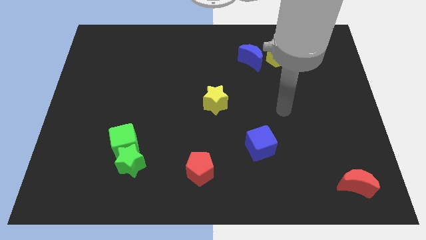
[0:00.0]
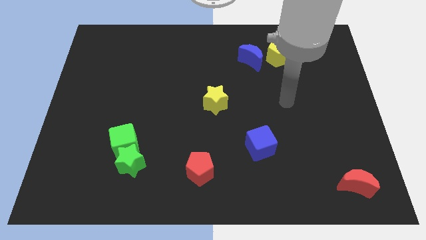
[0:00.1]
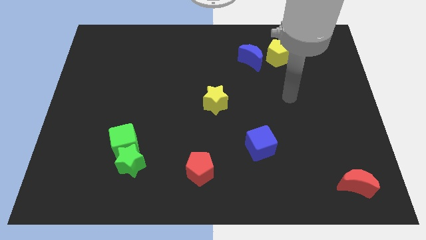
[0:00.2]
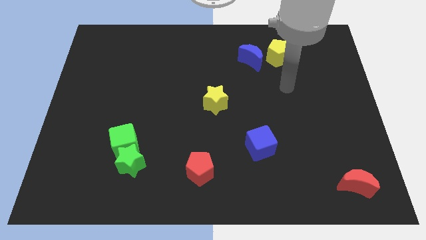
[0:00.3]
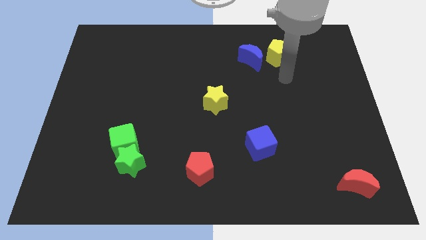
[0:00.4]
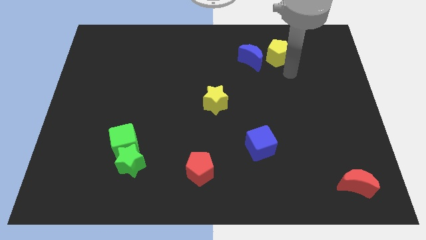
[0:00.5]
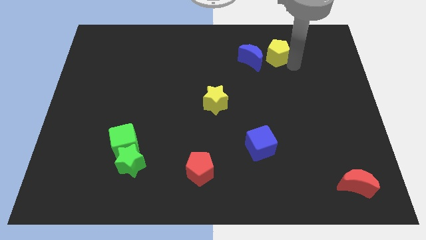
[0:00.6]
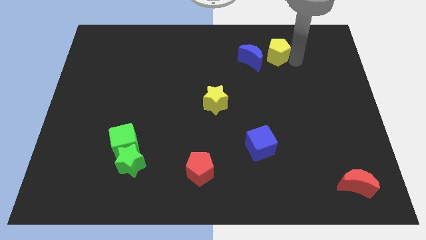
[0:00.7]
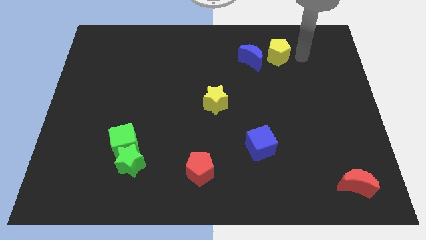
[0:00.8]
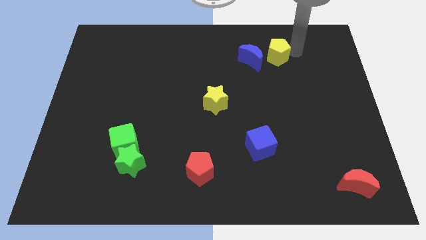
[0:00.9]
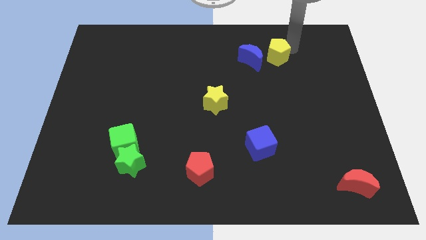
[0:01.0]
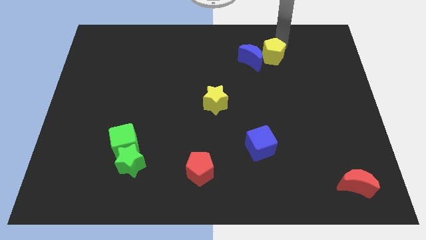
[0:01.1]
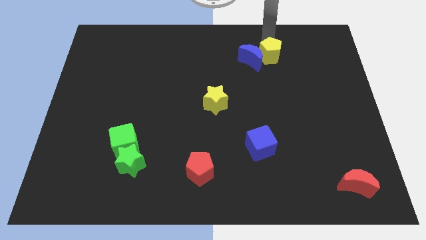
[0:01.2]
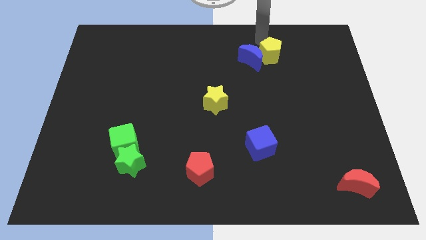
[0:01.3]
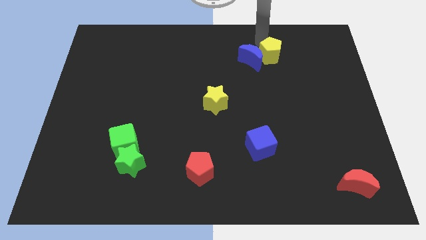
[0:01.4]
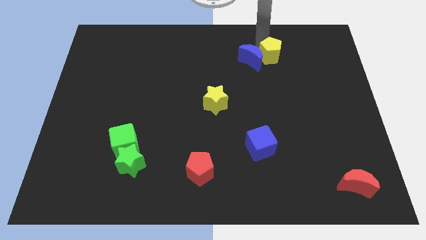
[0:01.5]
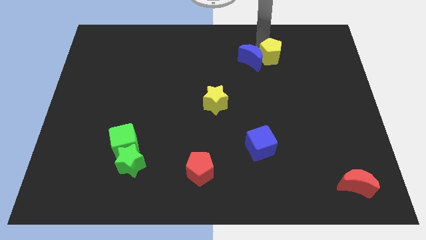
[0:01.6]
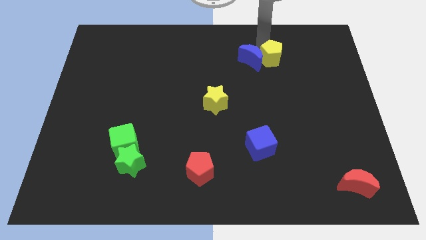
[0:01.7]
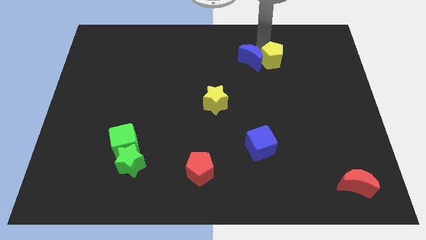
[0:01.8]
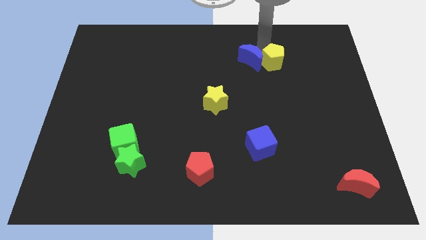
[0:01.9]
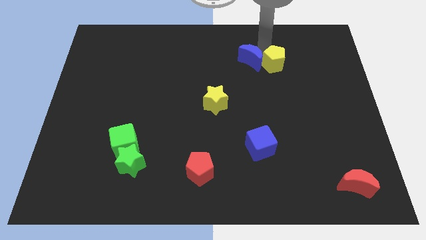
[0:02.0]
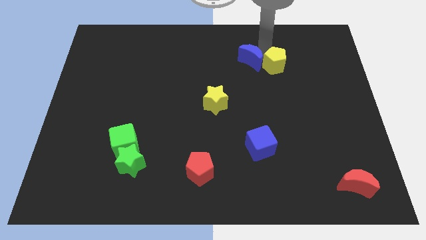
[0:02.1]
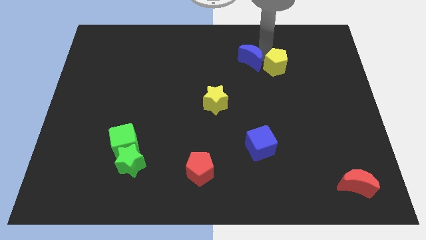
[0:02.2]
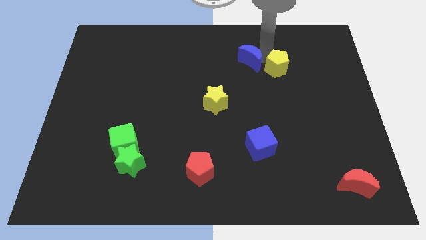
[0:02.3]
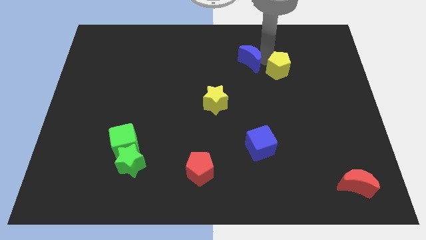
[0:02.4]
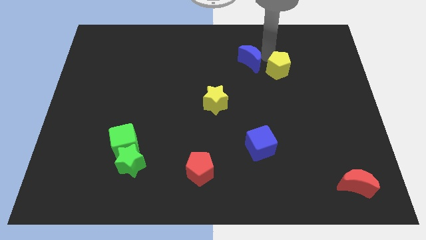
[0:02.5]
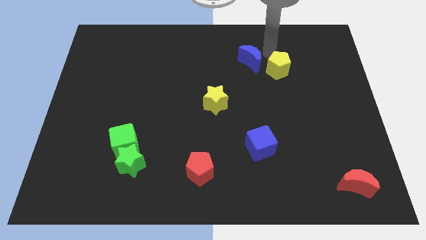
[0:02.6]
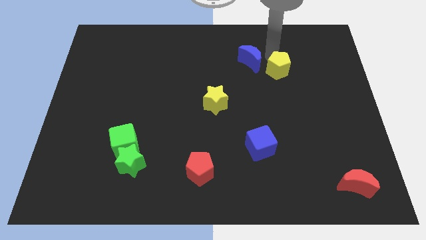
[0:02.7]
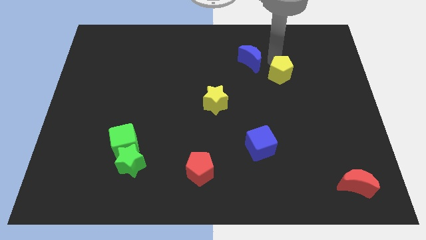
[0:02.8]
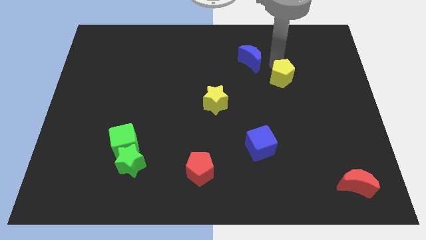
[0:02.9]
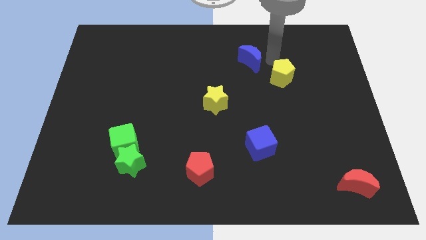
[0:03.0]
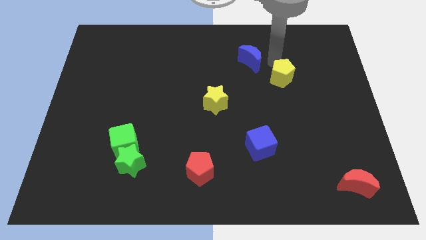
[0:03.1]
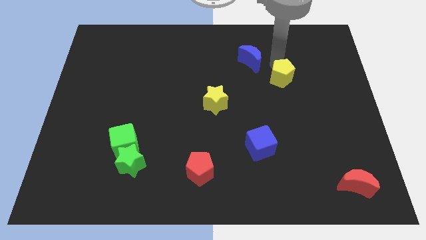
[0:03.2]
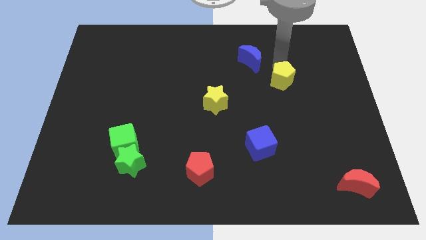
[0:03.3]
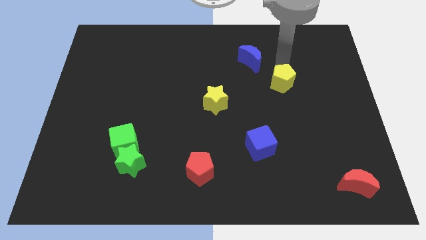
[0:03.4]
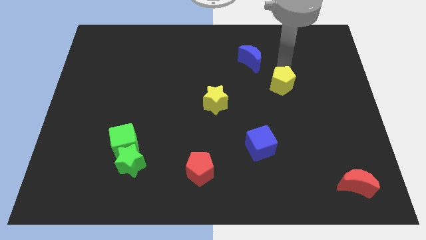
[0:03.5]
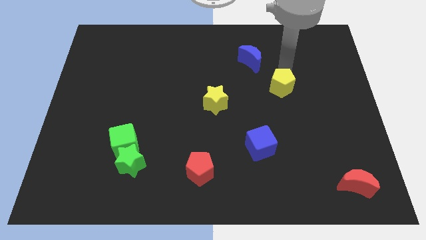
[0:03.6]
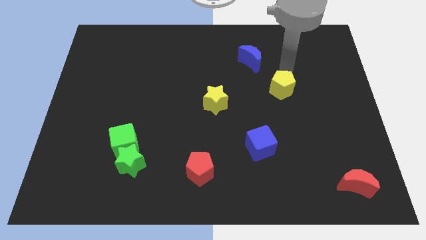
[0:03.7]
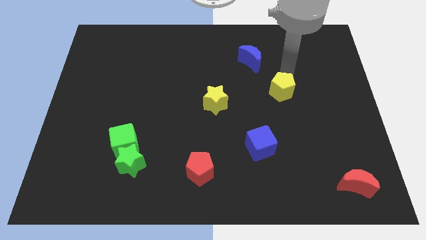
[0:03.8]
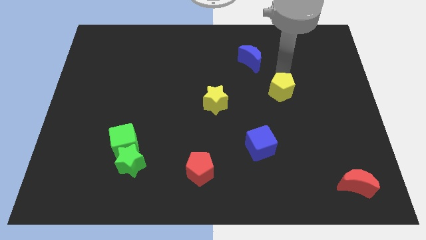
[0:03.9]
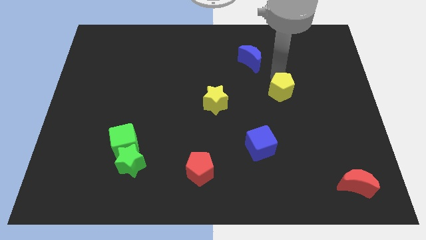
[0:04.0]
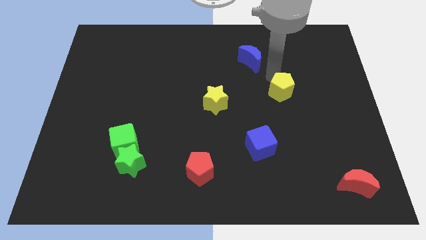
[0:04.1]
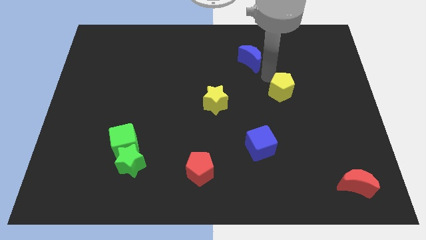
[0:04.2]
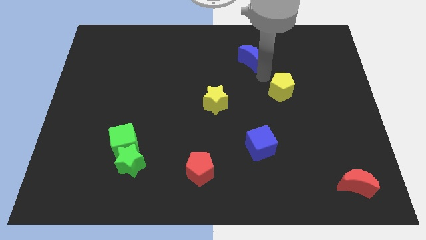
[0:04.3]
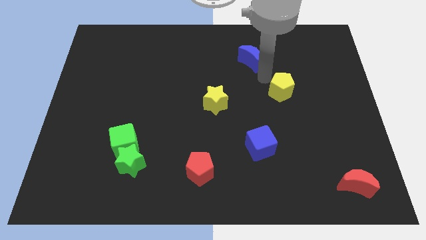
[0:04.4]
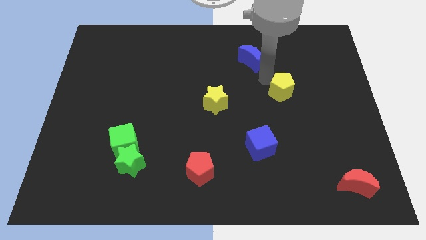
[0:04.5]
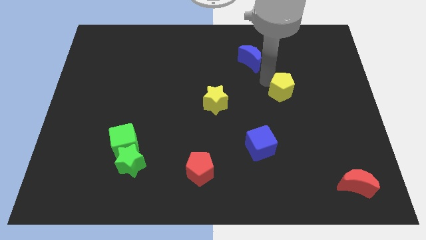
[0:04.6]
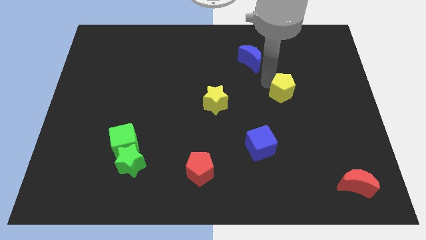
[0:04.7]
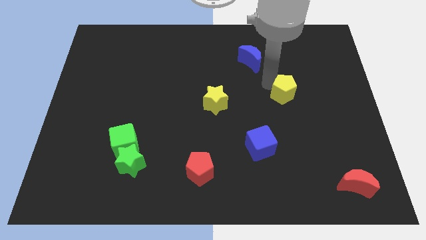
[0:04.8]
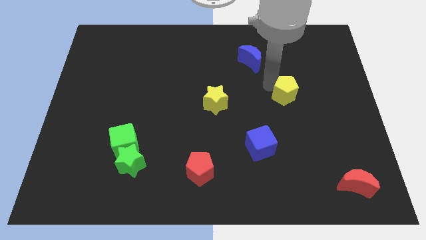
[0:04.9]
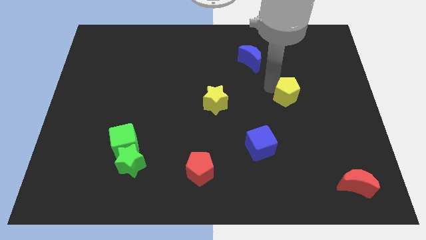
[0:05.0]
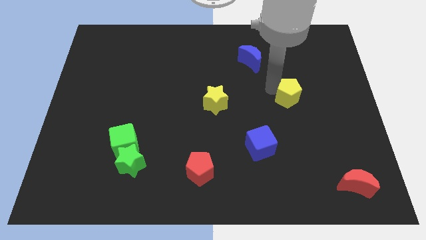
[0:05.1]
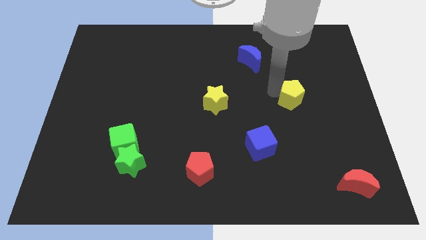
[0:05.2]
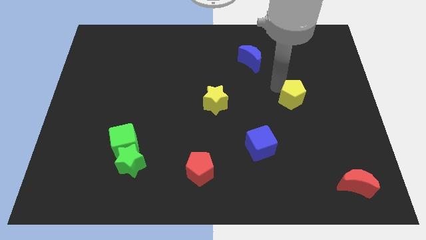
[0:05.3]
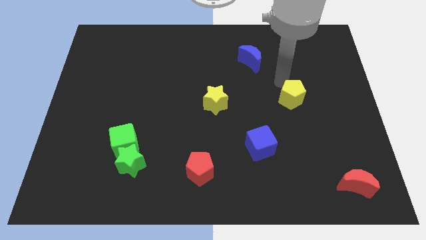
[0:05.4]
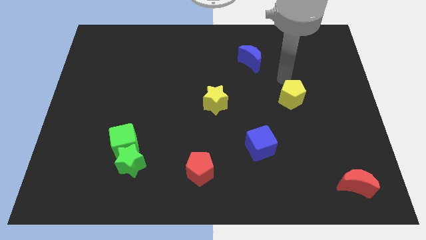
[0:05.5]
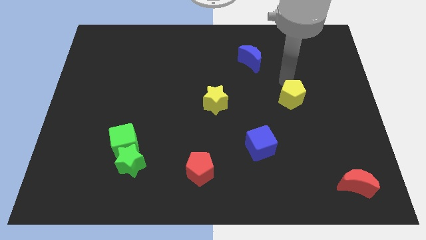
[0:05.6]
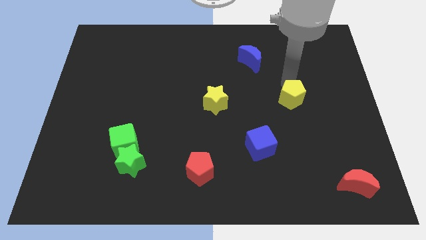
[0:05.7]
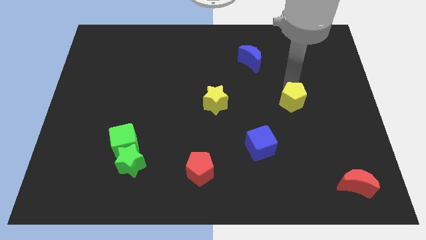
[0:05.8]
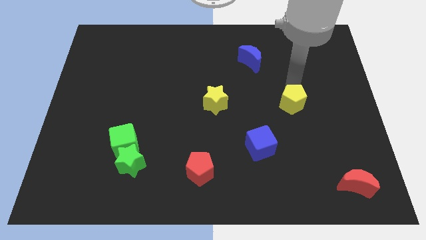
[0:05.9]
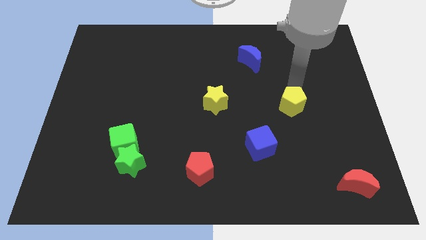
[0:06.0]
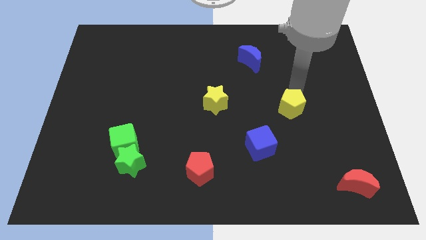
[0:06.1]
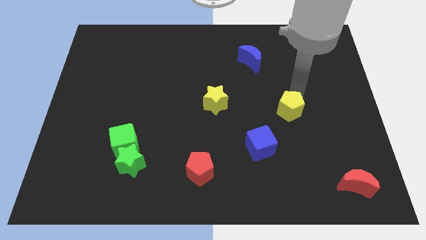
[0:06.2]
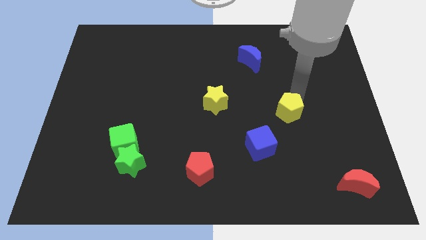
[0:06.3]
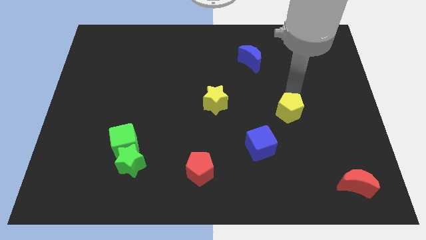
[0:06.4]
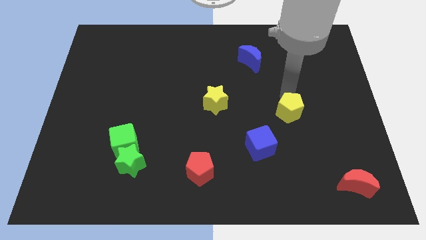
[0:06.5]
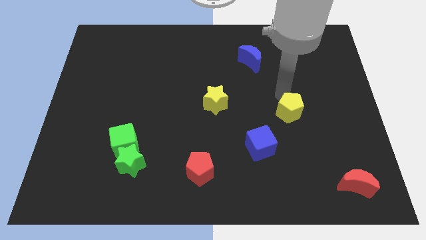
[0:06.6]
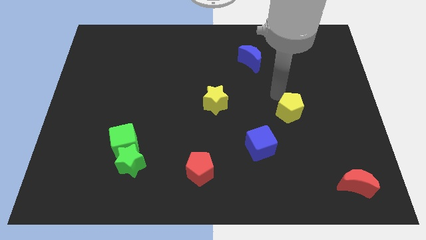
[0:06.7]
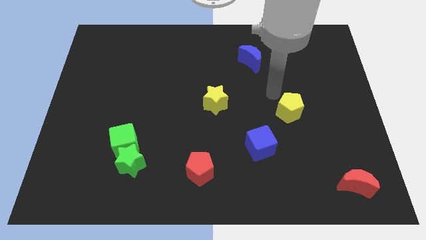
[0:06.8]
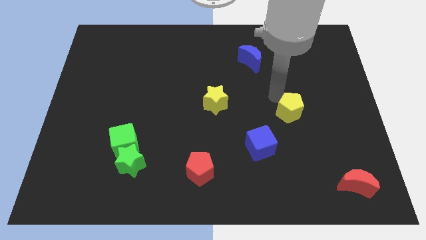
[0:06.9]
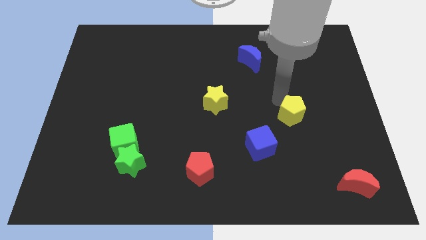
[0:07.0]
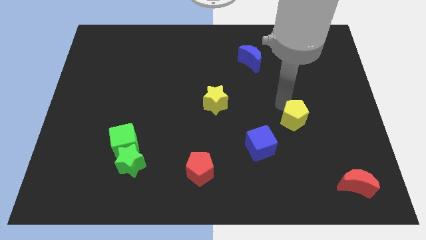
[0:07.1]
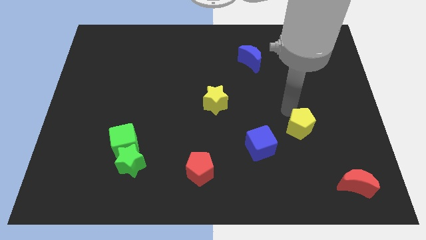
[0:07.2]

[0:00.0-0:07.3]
push the yellow pentagon to the right of the blue cube

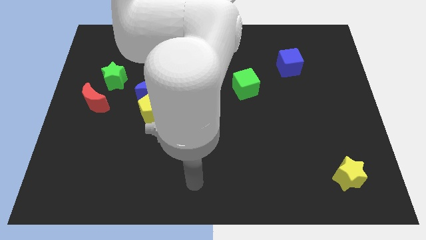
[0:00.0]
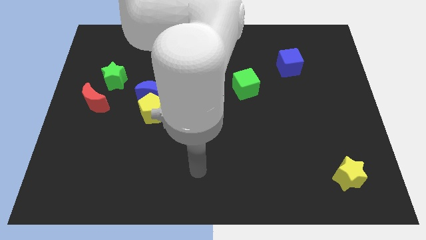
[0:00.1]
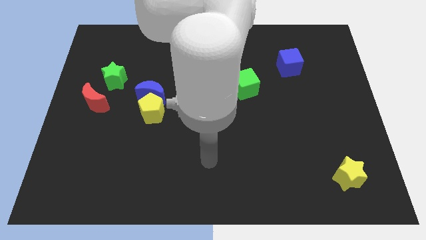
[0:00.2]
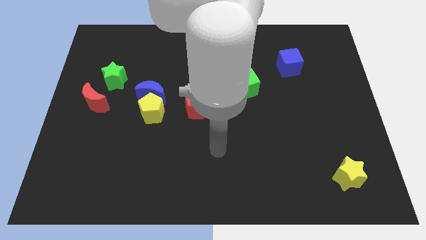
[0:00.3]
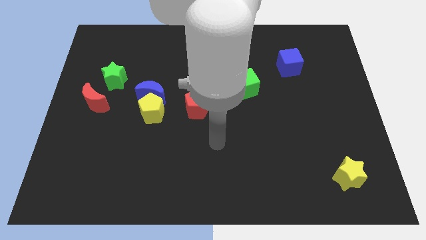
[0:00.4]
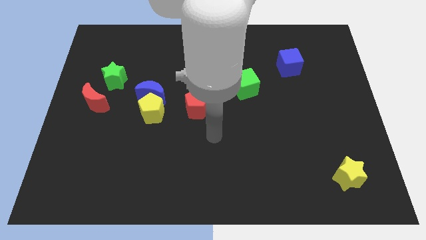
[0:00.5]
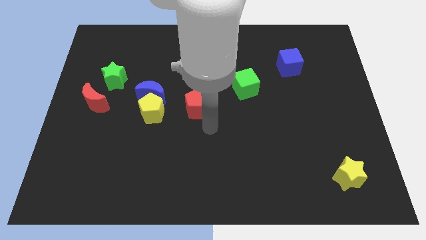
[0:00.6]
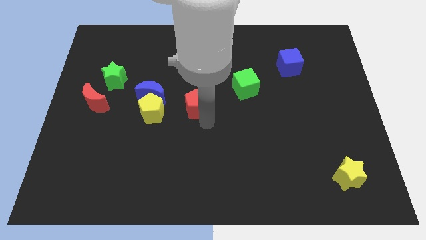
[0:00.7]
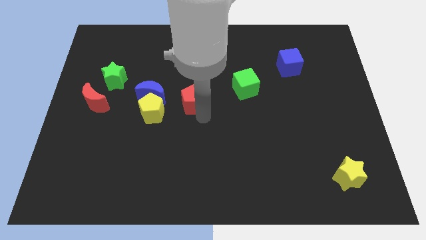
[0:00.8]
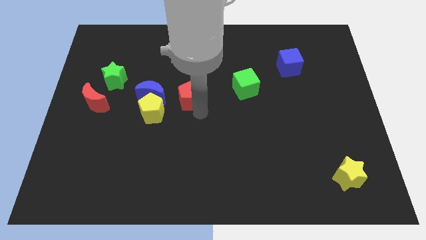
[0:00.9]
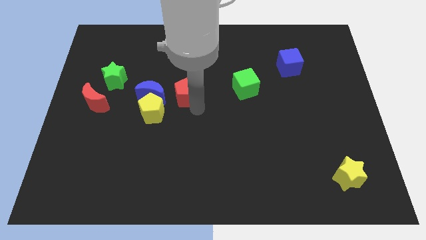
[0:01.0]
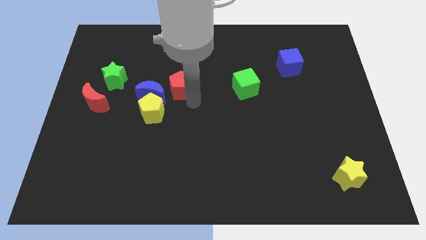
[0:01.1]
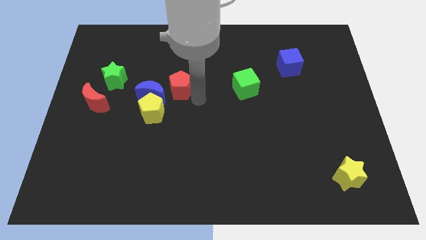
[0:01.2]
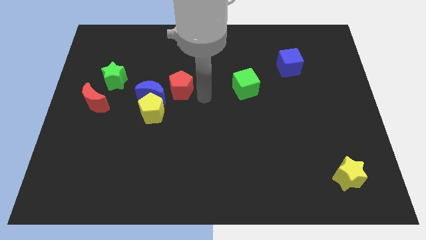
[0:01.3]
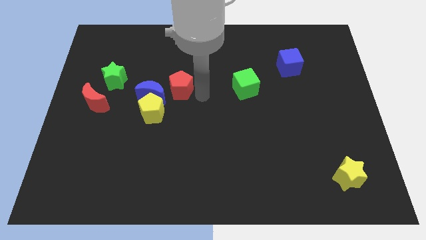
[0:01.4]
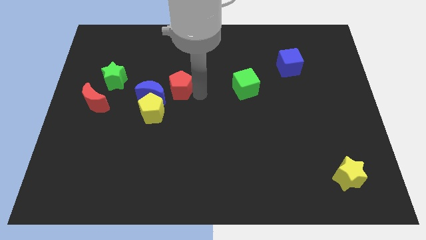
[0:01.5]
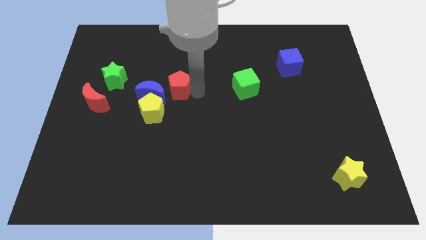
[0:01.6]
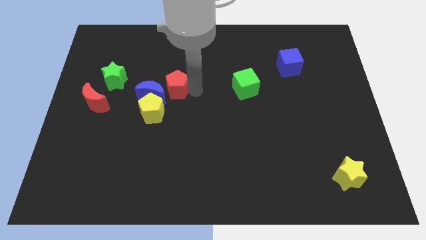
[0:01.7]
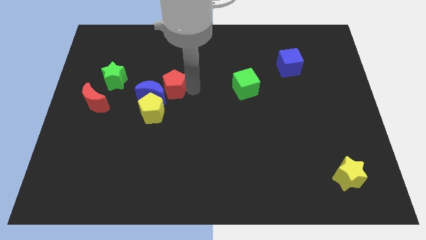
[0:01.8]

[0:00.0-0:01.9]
put the red pentagon just right of the green star
